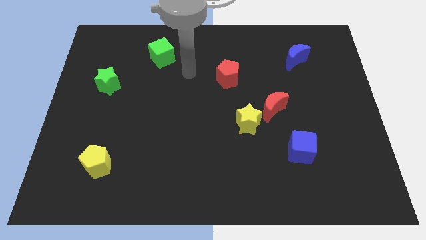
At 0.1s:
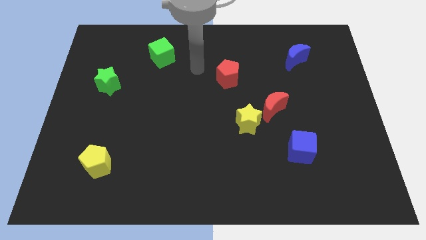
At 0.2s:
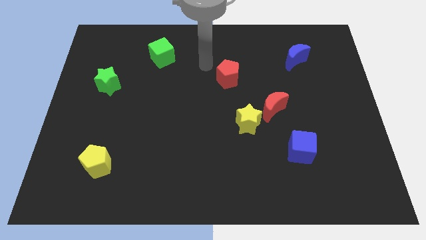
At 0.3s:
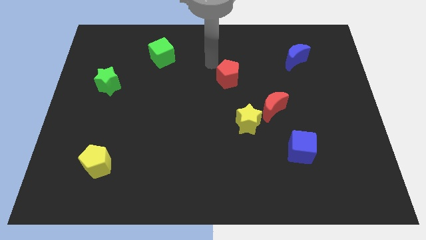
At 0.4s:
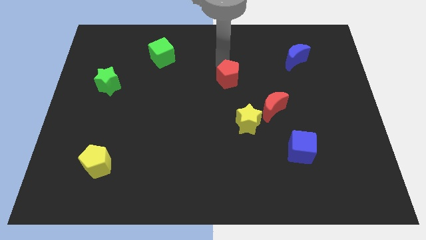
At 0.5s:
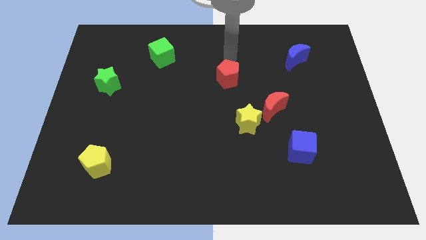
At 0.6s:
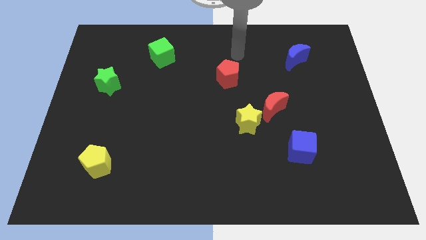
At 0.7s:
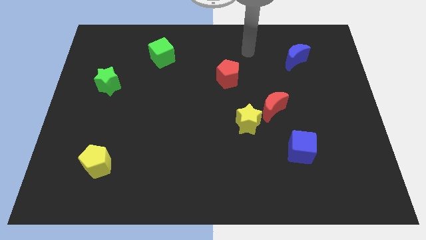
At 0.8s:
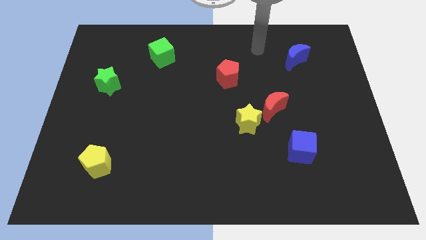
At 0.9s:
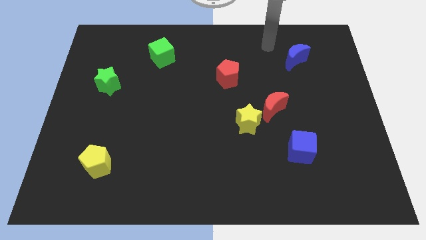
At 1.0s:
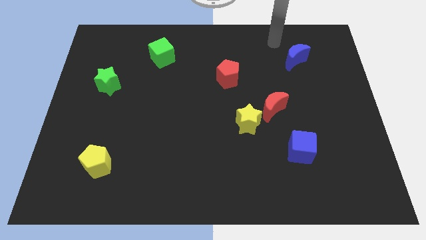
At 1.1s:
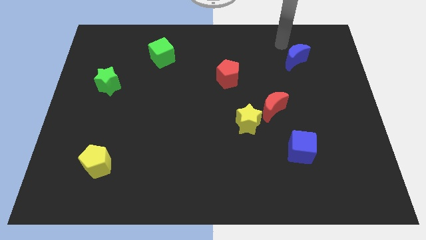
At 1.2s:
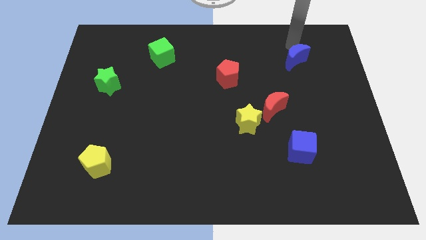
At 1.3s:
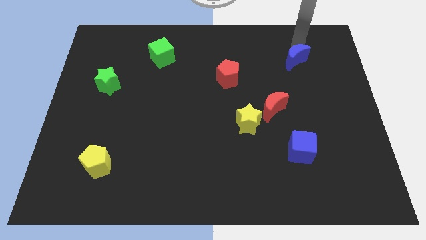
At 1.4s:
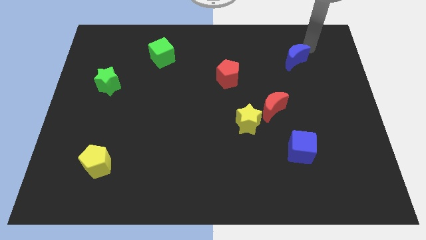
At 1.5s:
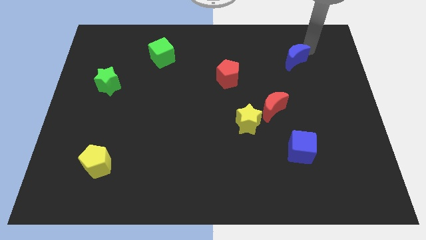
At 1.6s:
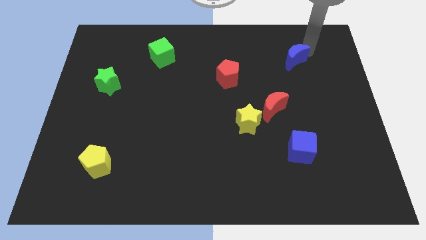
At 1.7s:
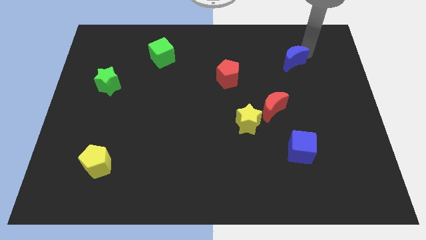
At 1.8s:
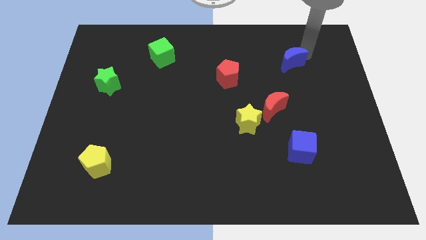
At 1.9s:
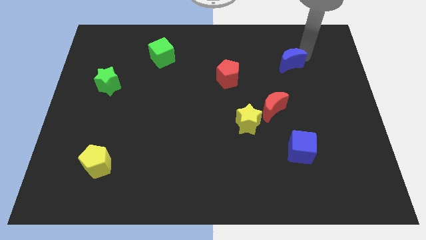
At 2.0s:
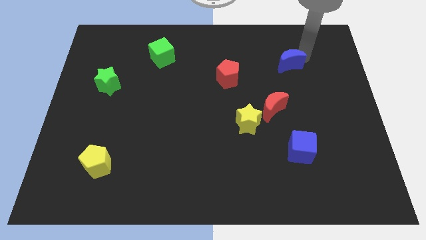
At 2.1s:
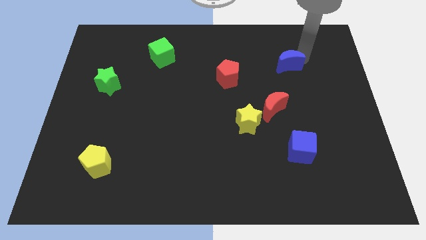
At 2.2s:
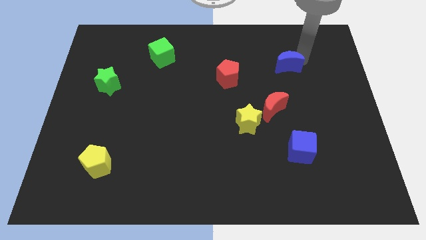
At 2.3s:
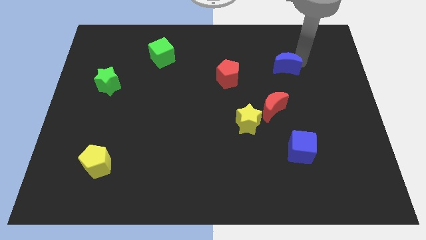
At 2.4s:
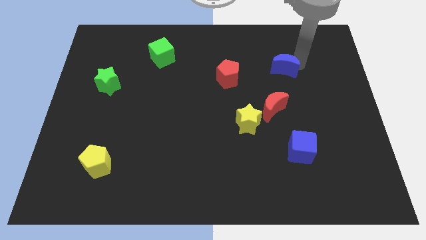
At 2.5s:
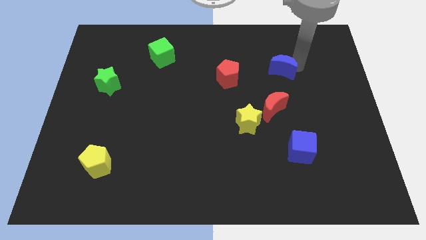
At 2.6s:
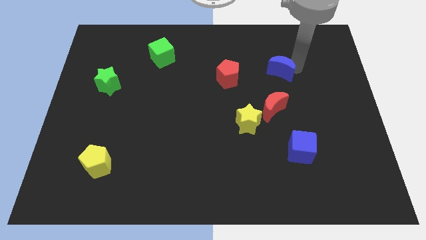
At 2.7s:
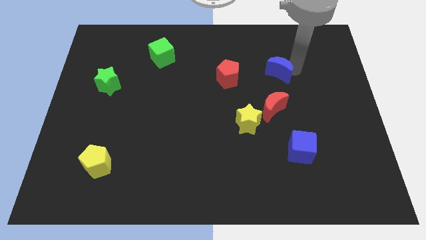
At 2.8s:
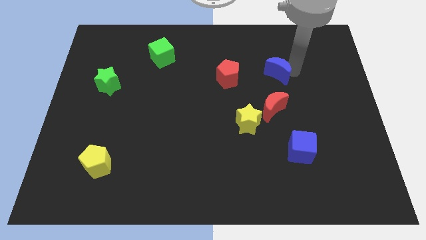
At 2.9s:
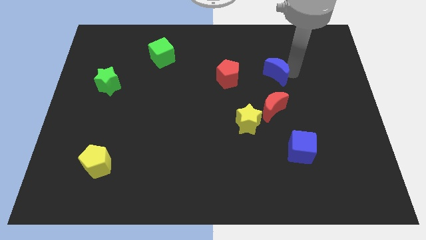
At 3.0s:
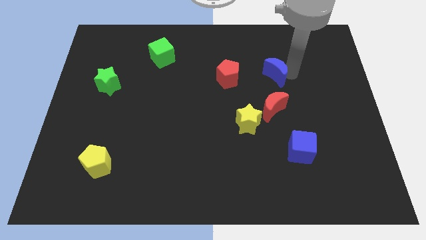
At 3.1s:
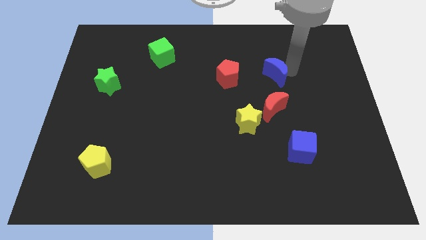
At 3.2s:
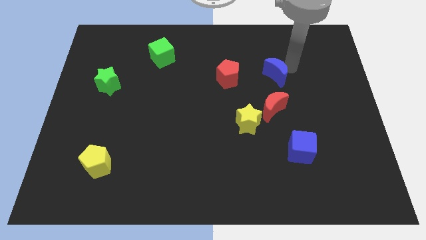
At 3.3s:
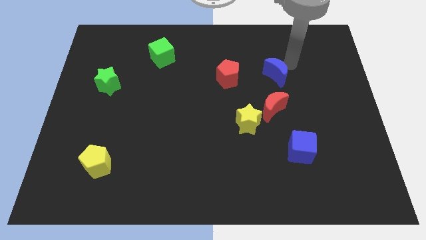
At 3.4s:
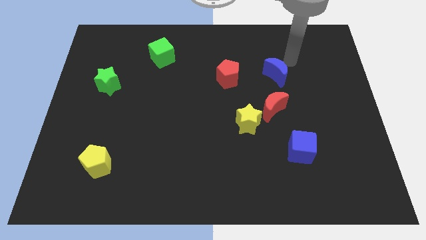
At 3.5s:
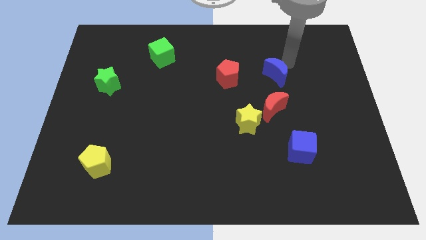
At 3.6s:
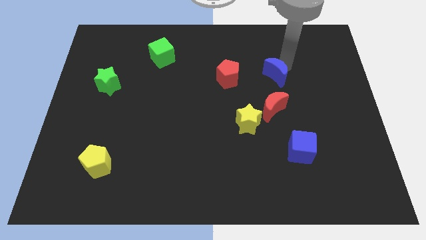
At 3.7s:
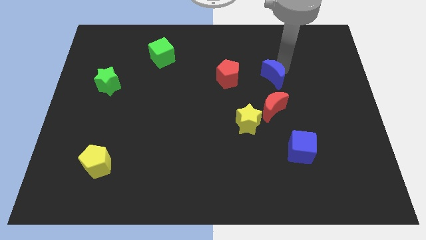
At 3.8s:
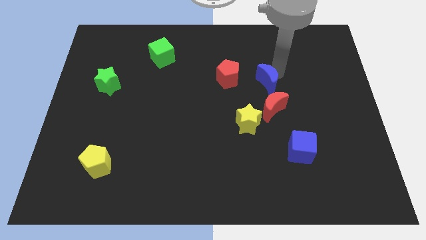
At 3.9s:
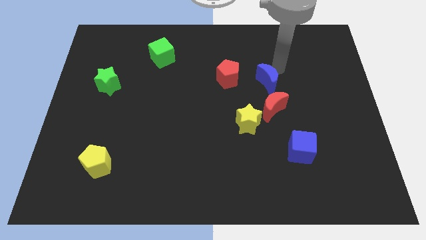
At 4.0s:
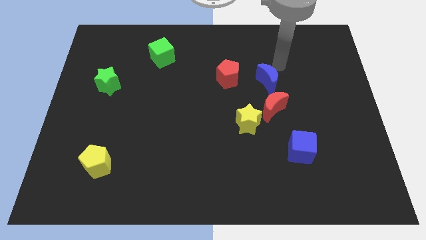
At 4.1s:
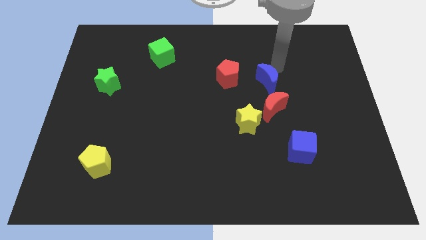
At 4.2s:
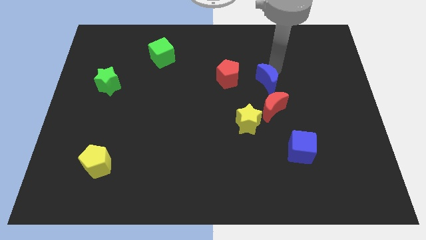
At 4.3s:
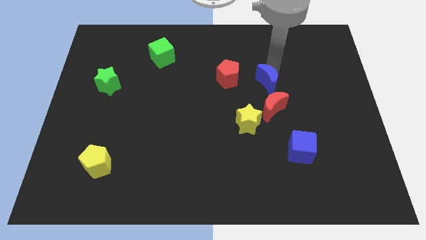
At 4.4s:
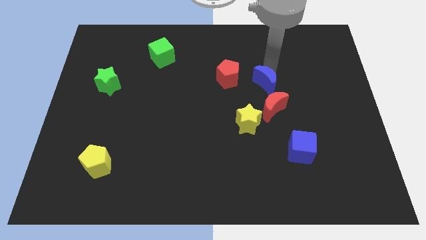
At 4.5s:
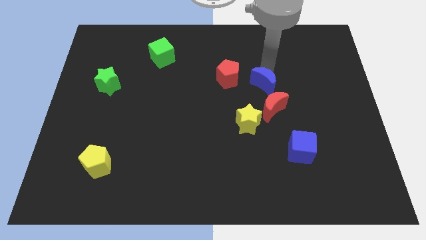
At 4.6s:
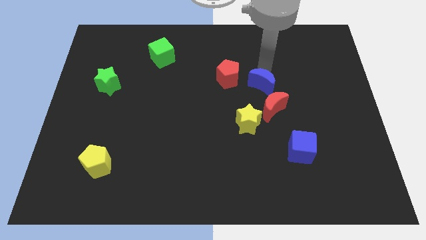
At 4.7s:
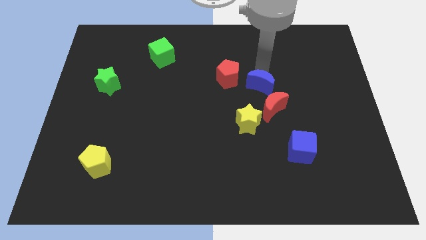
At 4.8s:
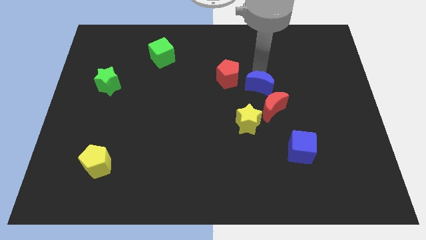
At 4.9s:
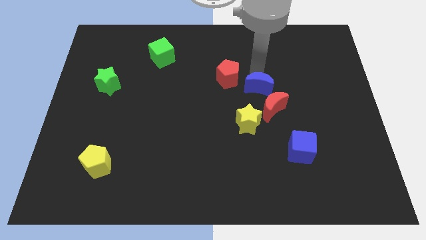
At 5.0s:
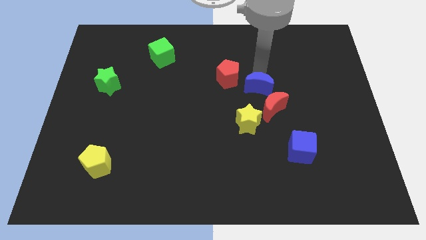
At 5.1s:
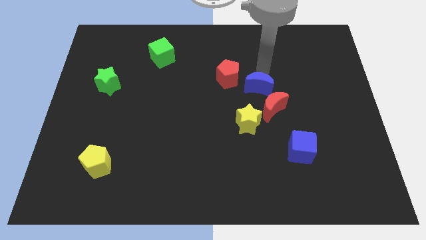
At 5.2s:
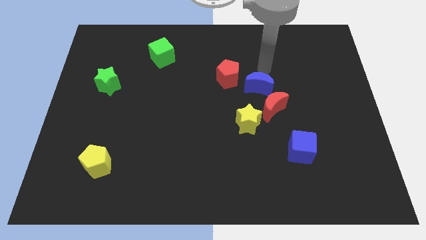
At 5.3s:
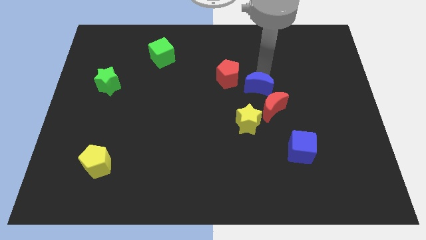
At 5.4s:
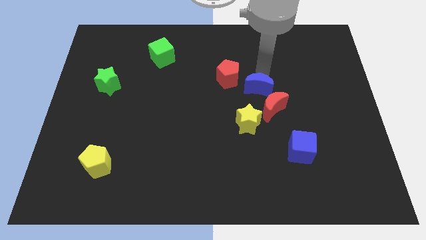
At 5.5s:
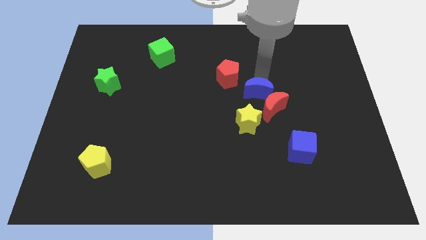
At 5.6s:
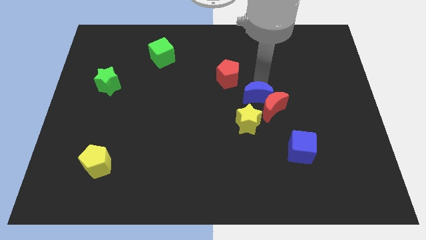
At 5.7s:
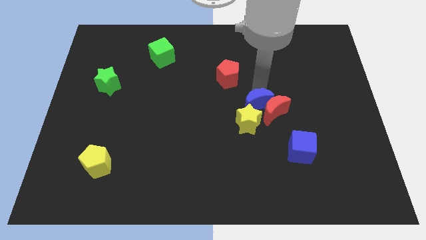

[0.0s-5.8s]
move the blue moon next to the yellow star

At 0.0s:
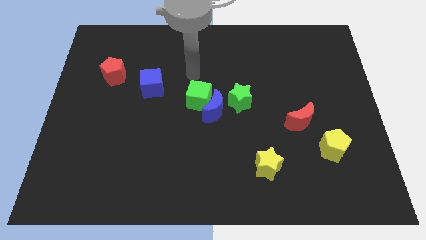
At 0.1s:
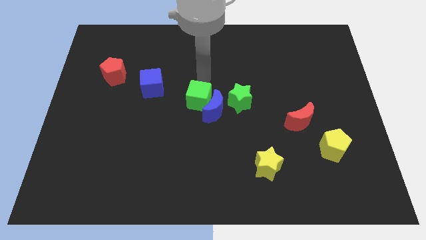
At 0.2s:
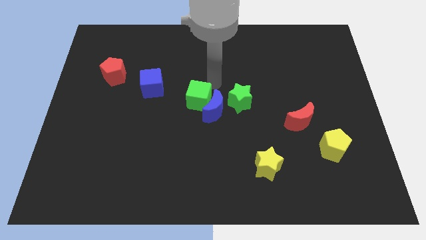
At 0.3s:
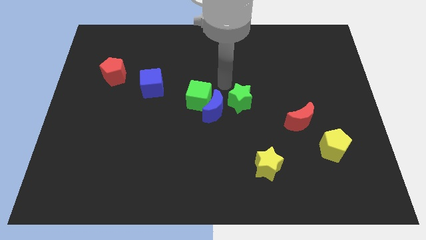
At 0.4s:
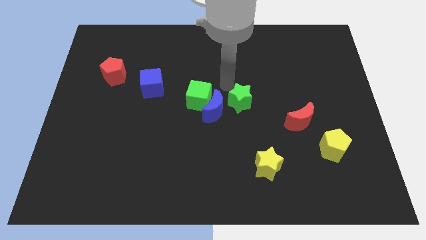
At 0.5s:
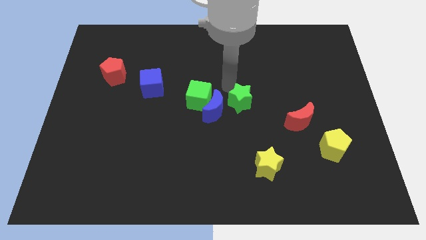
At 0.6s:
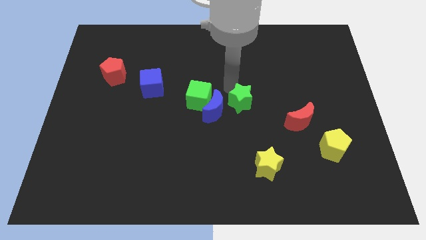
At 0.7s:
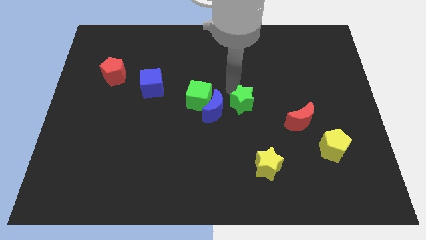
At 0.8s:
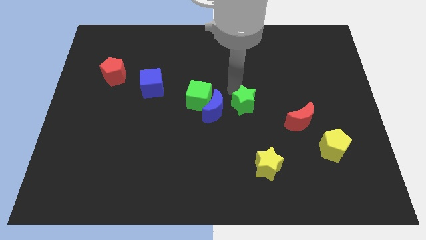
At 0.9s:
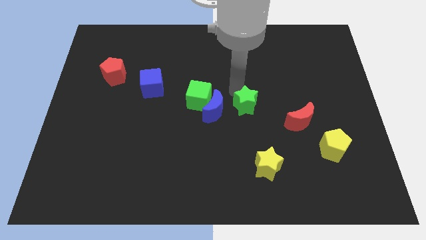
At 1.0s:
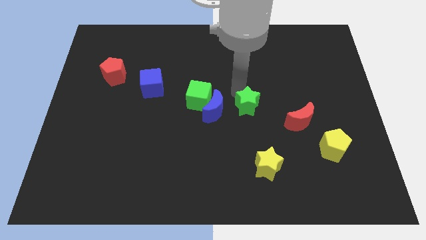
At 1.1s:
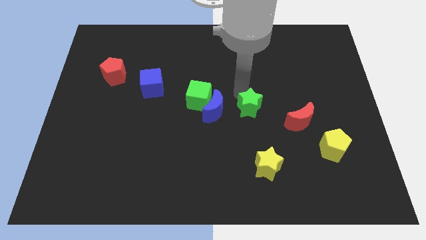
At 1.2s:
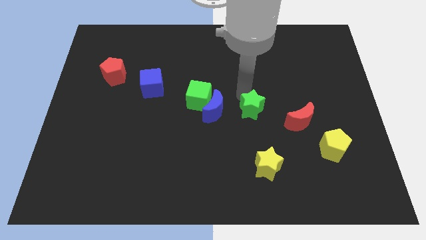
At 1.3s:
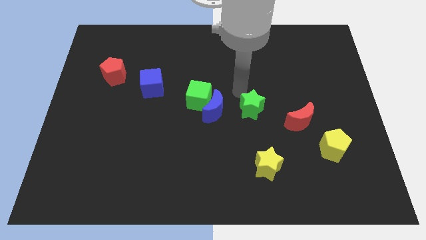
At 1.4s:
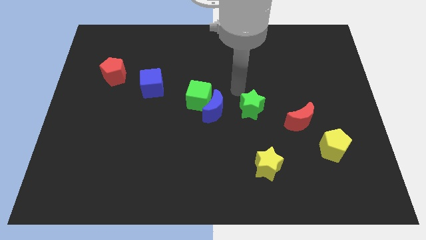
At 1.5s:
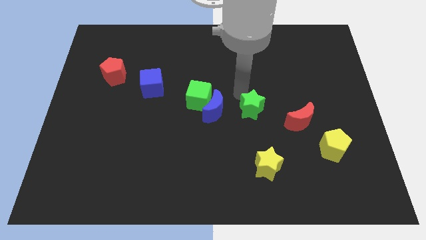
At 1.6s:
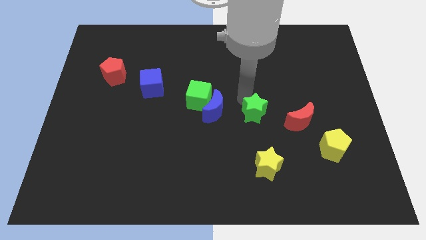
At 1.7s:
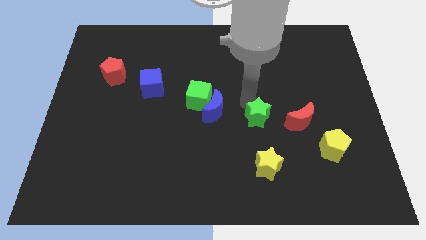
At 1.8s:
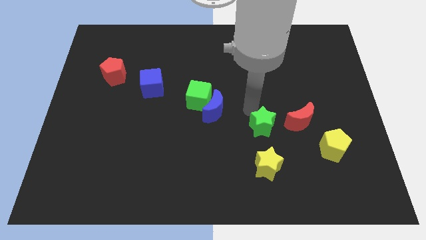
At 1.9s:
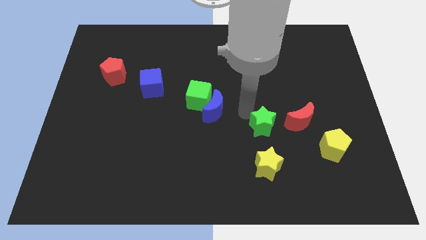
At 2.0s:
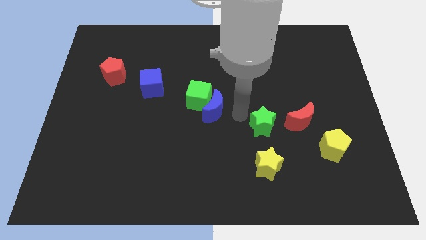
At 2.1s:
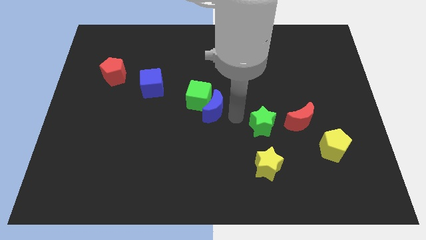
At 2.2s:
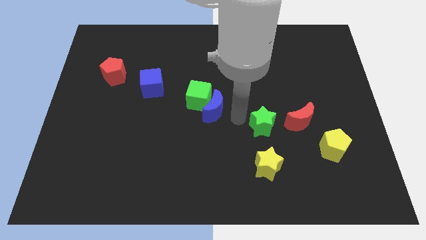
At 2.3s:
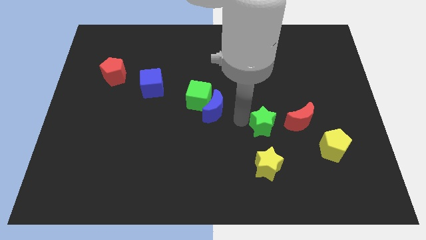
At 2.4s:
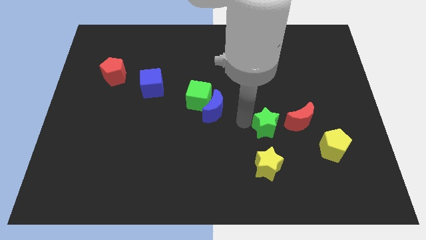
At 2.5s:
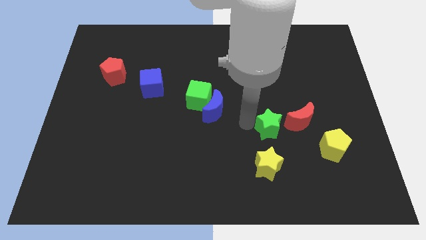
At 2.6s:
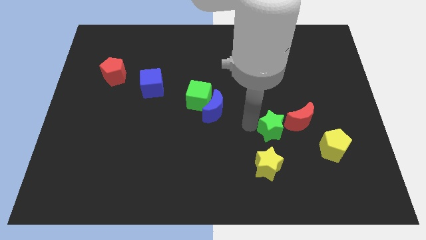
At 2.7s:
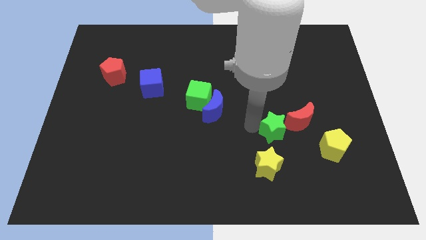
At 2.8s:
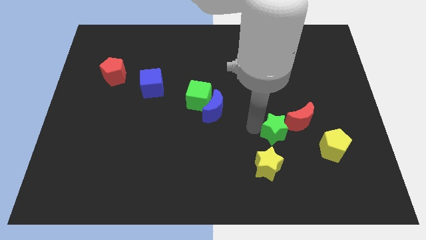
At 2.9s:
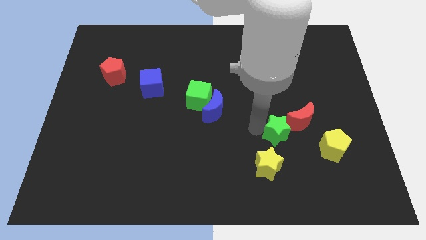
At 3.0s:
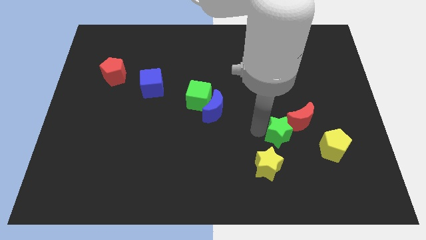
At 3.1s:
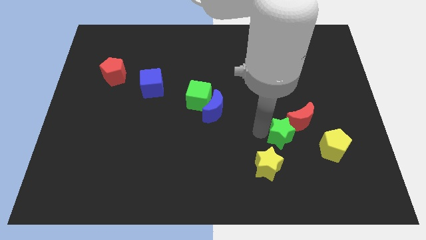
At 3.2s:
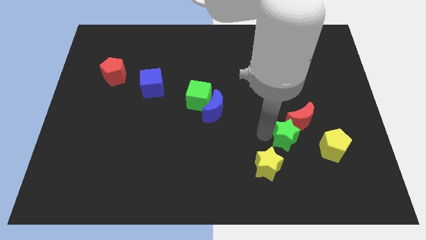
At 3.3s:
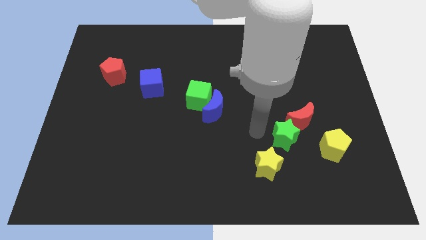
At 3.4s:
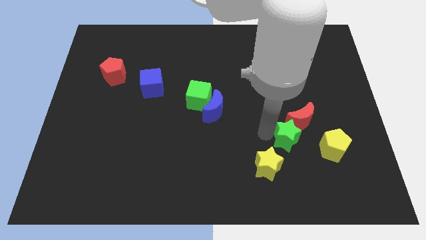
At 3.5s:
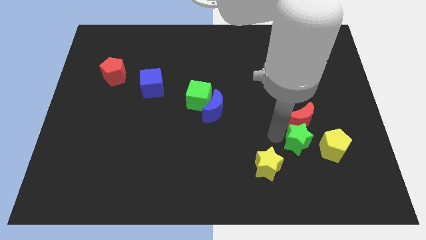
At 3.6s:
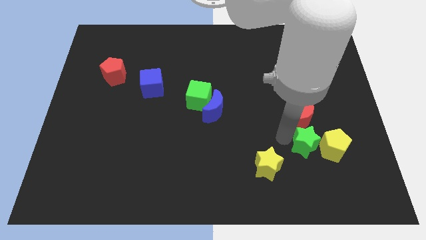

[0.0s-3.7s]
slide the green star close to the yellow pentagon
